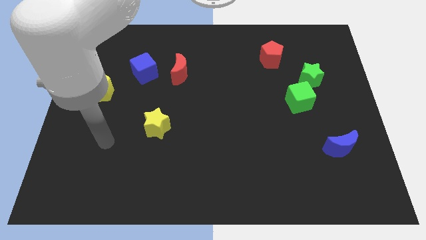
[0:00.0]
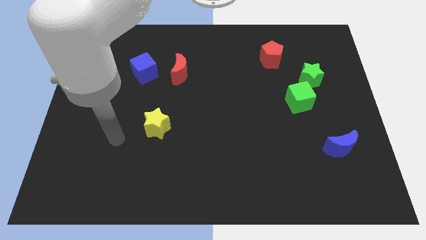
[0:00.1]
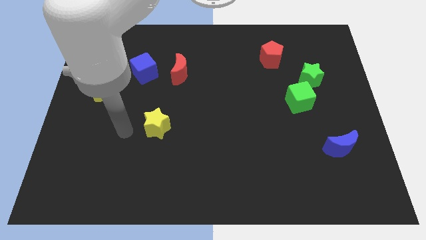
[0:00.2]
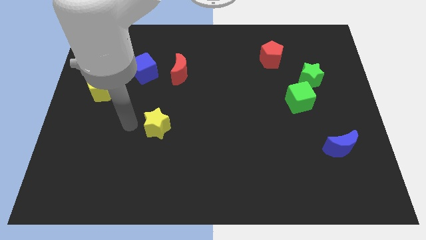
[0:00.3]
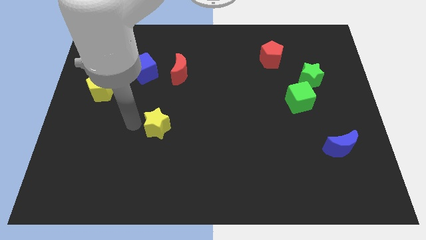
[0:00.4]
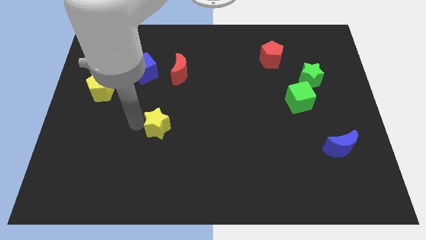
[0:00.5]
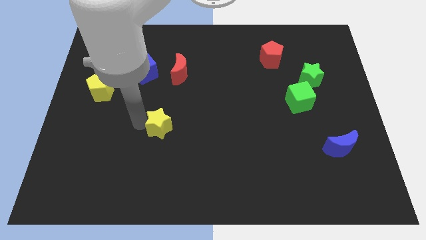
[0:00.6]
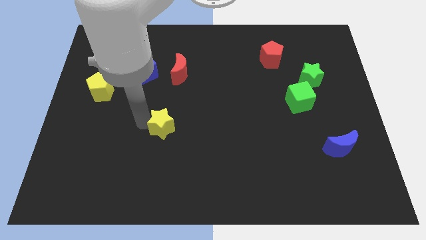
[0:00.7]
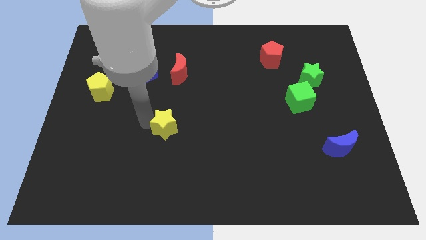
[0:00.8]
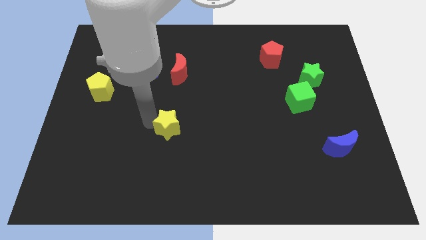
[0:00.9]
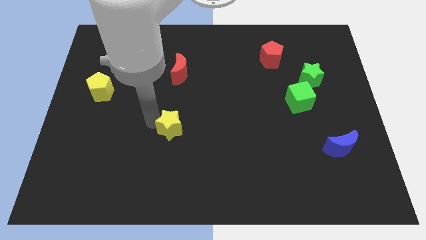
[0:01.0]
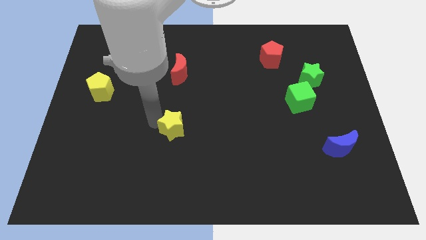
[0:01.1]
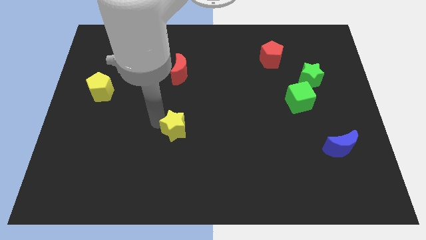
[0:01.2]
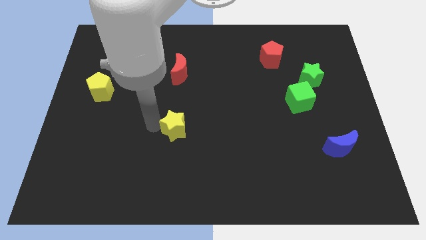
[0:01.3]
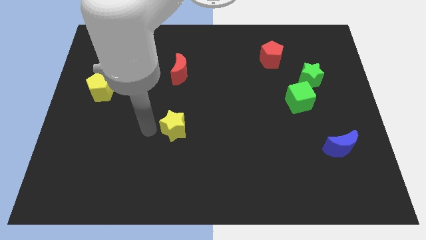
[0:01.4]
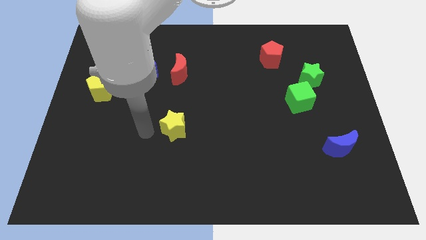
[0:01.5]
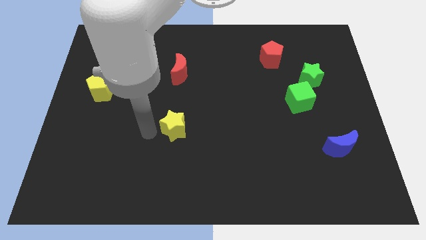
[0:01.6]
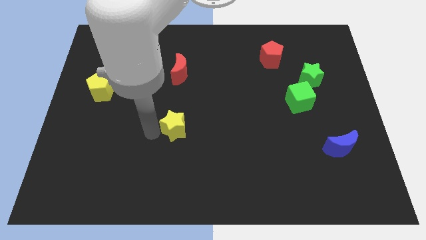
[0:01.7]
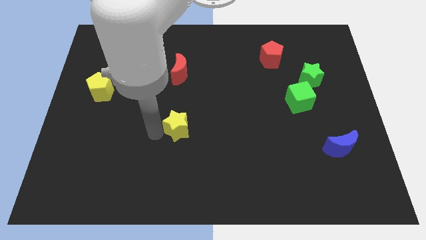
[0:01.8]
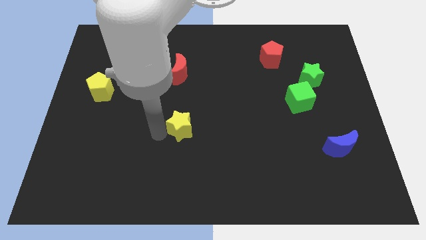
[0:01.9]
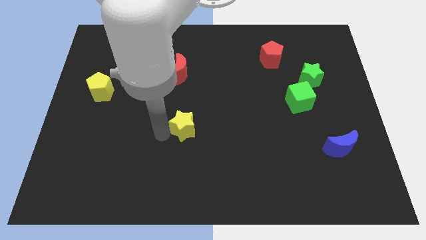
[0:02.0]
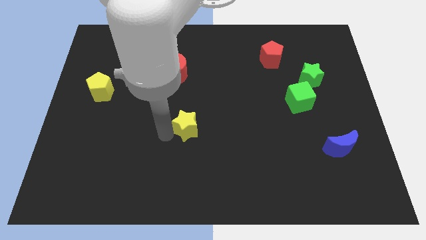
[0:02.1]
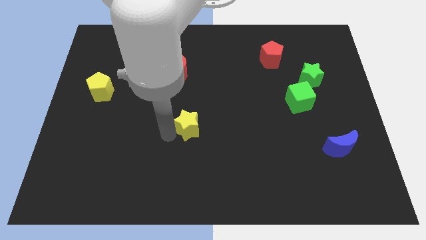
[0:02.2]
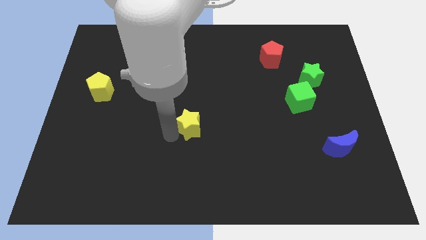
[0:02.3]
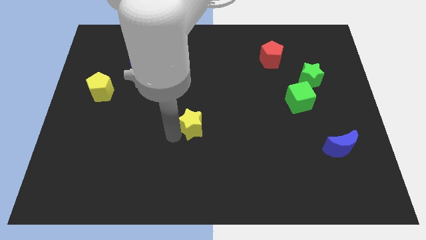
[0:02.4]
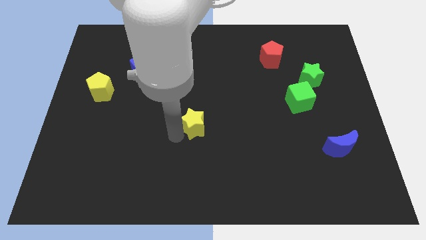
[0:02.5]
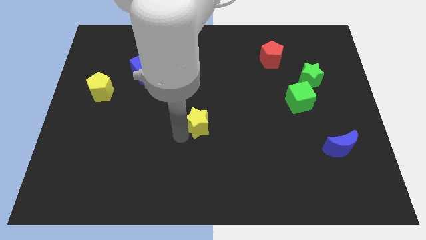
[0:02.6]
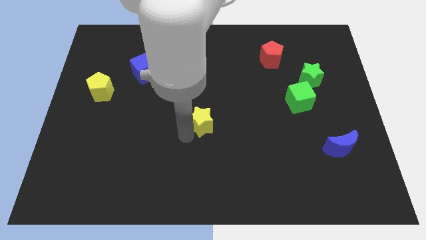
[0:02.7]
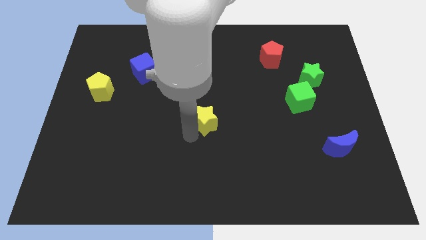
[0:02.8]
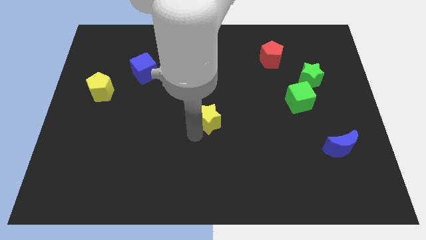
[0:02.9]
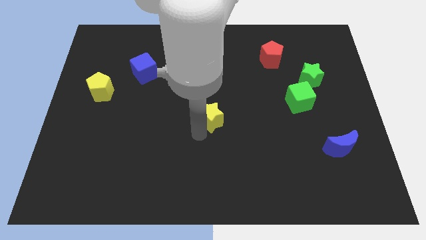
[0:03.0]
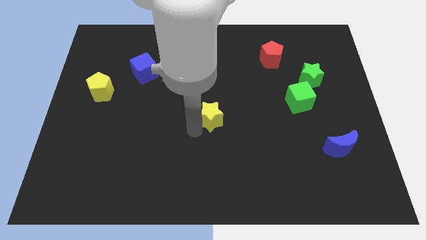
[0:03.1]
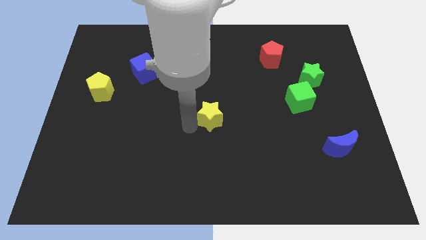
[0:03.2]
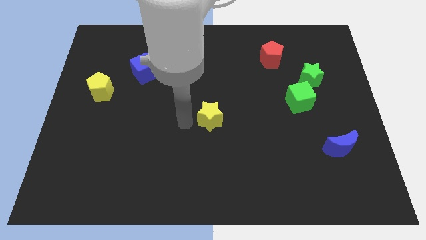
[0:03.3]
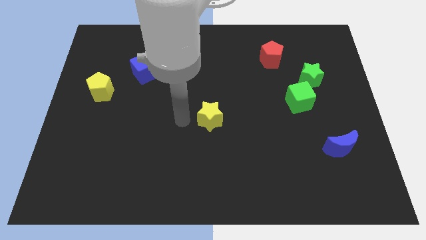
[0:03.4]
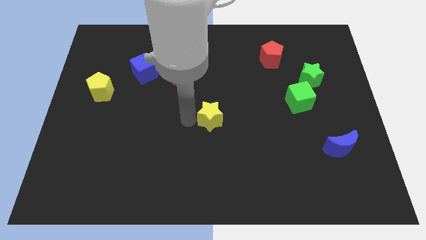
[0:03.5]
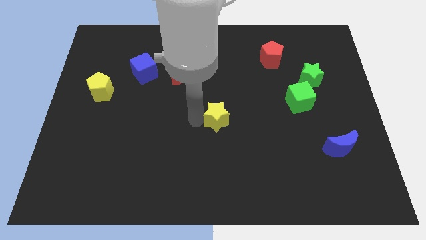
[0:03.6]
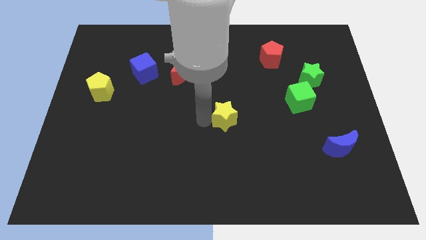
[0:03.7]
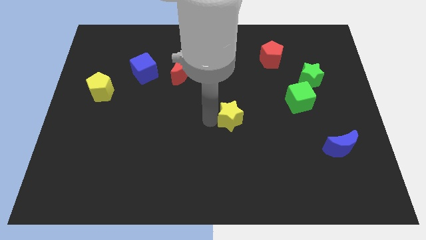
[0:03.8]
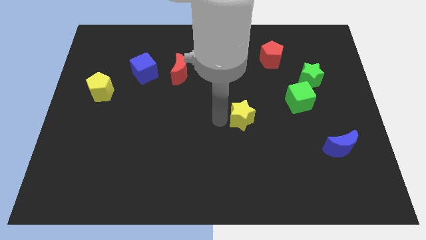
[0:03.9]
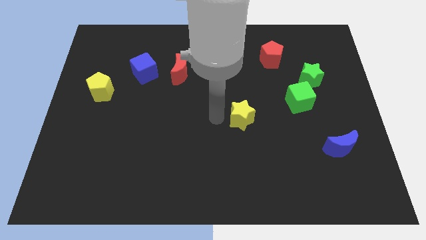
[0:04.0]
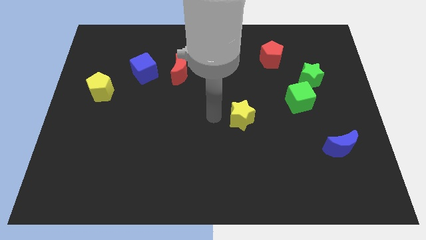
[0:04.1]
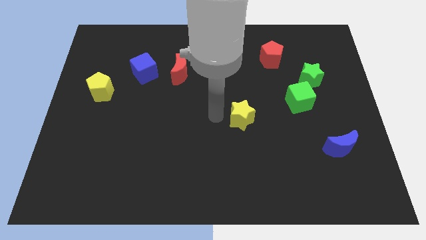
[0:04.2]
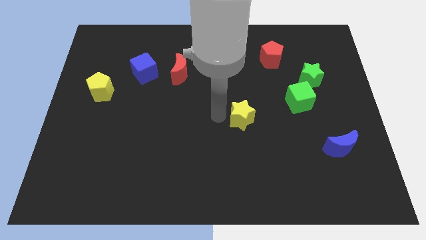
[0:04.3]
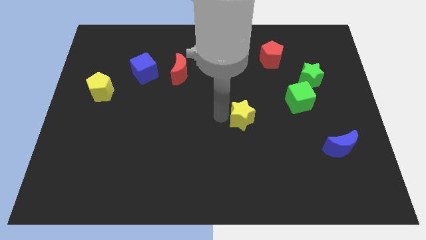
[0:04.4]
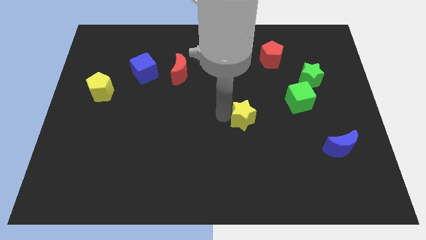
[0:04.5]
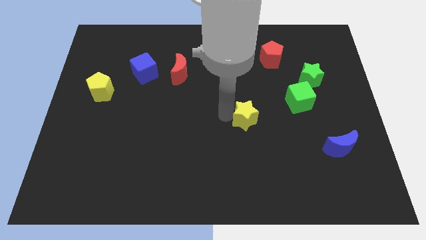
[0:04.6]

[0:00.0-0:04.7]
push the yellow star right

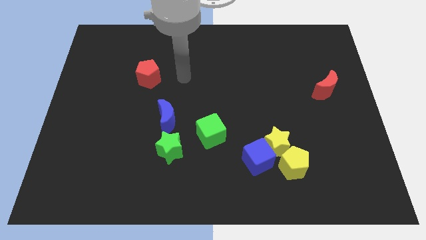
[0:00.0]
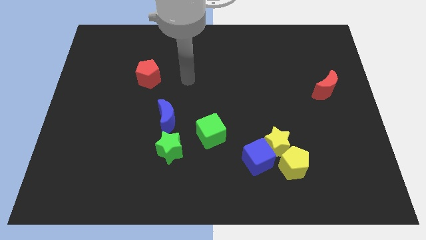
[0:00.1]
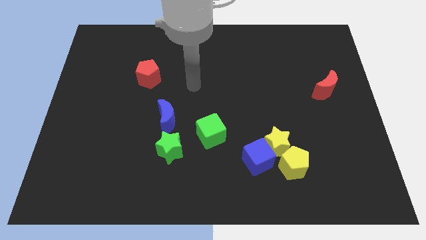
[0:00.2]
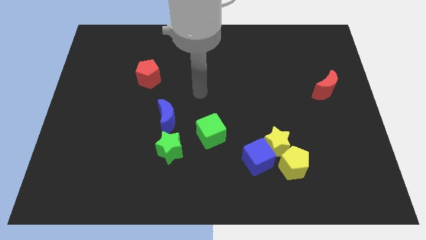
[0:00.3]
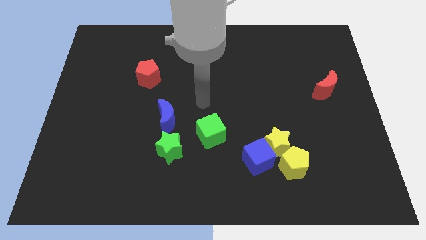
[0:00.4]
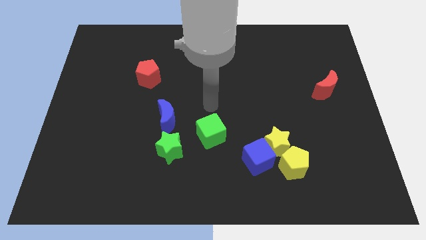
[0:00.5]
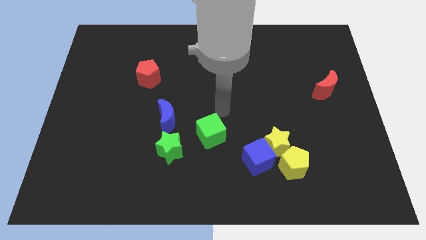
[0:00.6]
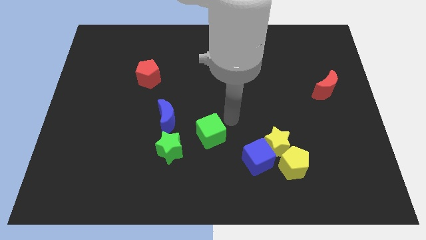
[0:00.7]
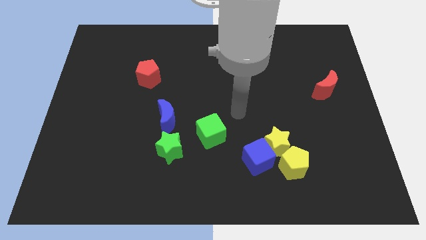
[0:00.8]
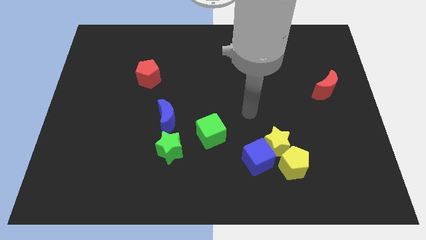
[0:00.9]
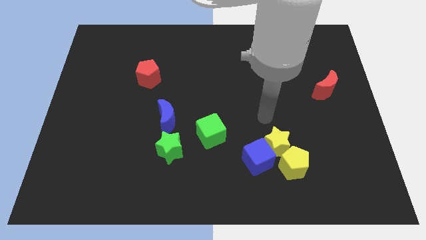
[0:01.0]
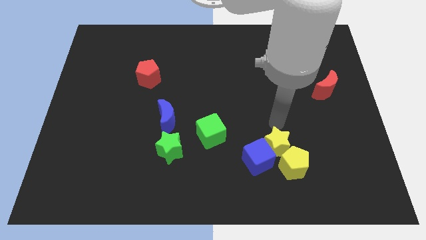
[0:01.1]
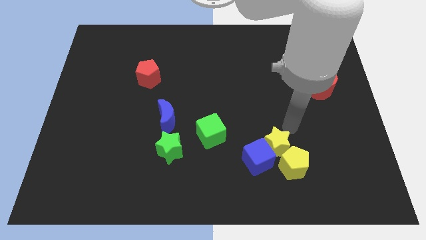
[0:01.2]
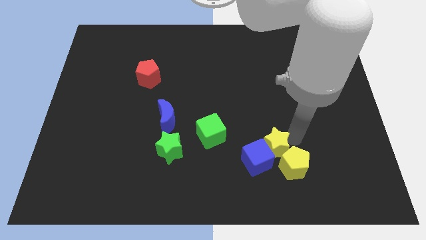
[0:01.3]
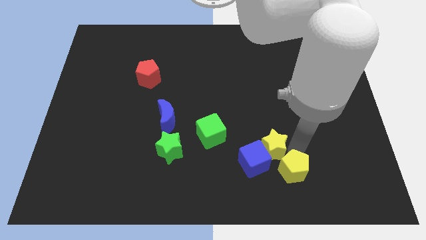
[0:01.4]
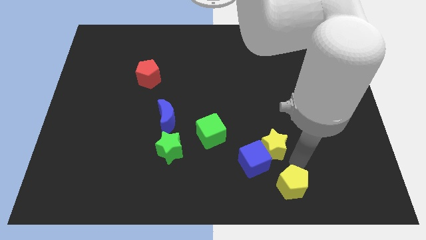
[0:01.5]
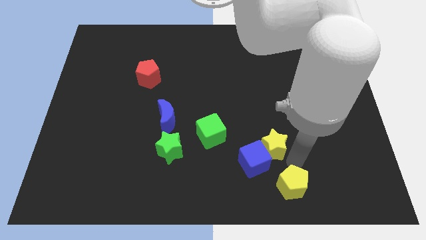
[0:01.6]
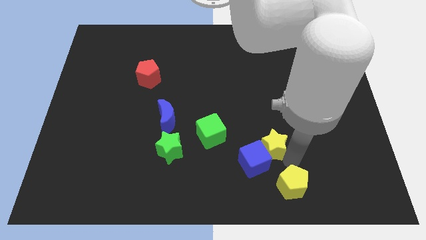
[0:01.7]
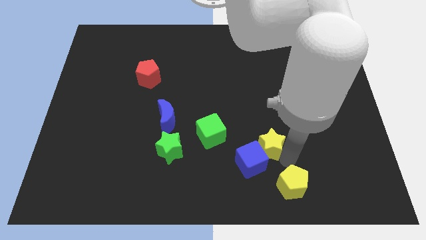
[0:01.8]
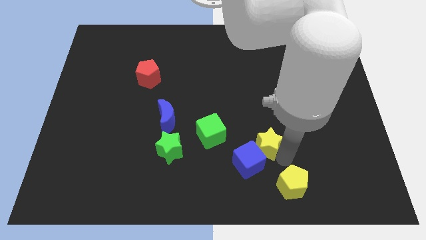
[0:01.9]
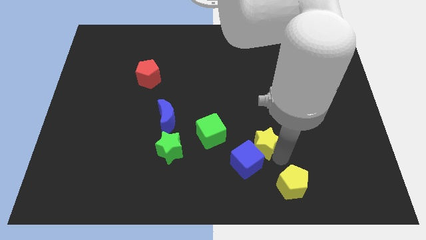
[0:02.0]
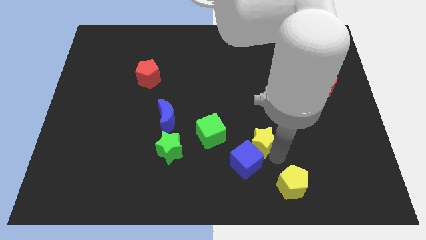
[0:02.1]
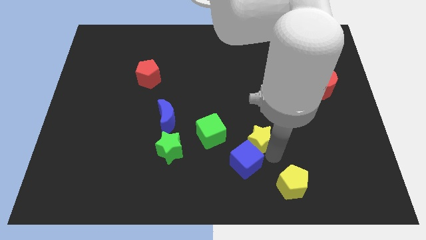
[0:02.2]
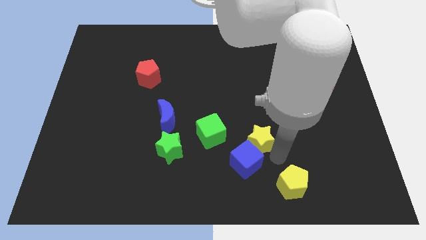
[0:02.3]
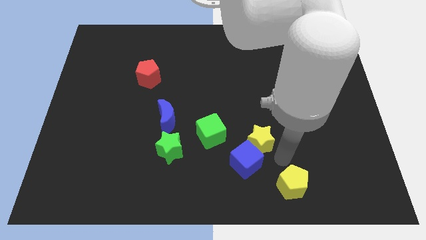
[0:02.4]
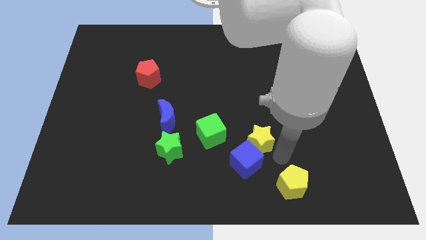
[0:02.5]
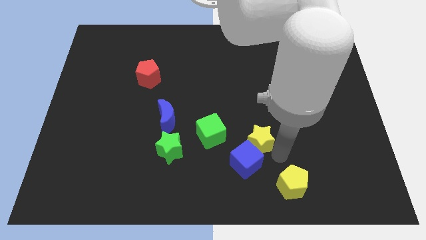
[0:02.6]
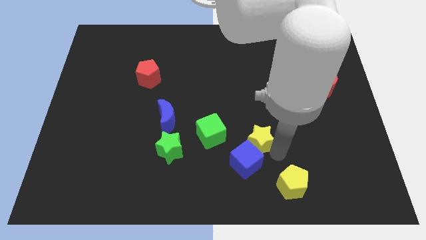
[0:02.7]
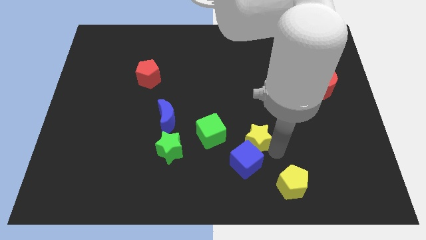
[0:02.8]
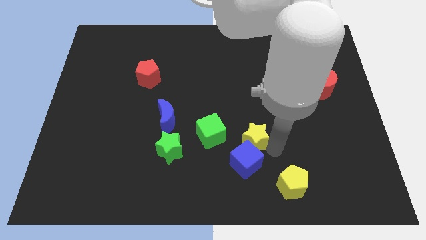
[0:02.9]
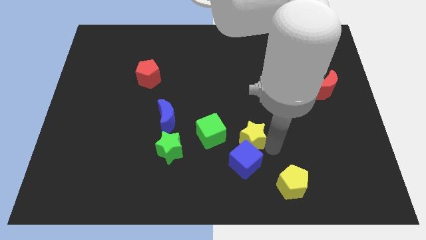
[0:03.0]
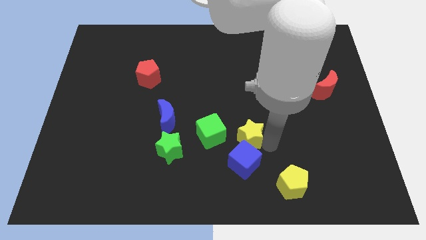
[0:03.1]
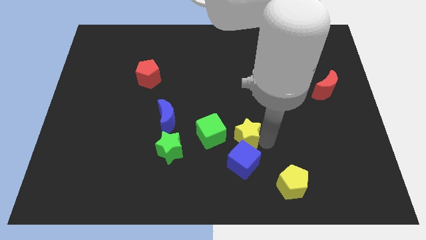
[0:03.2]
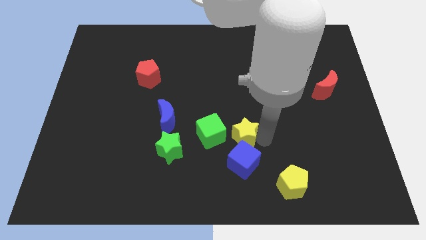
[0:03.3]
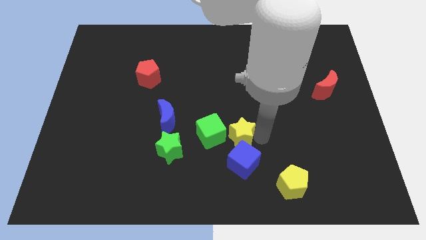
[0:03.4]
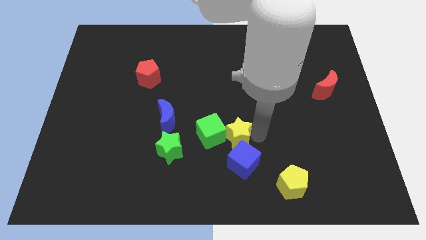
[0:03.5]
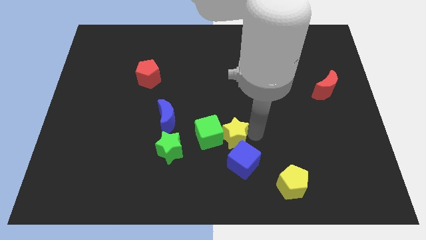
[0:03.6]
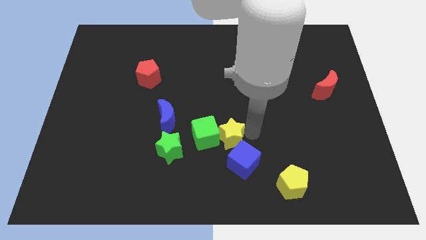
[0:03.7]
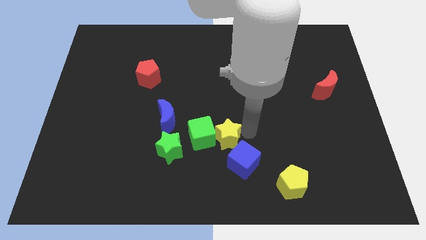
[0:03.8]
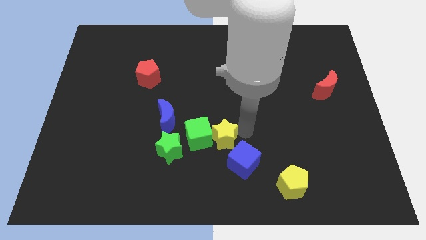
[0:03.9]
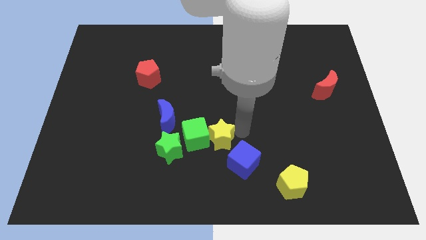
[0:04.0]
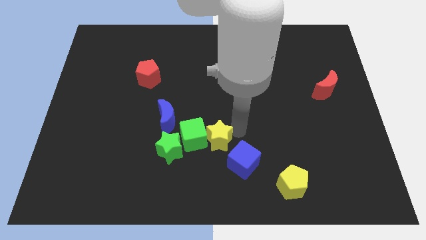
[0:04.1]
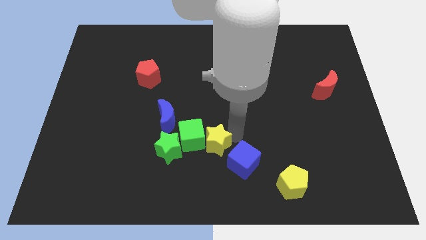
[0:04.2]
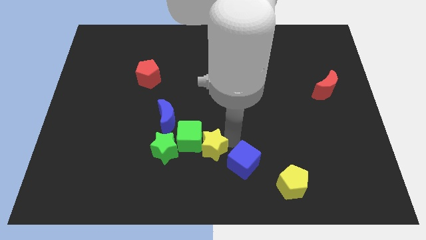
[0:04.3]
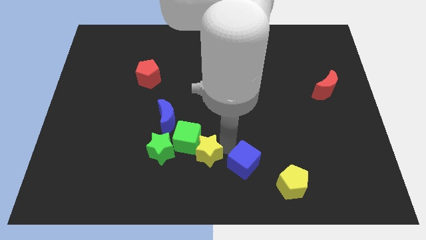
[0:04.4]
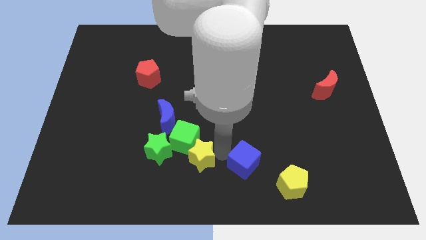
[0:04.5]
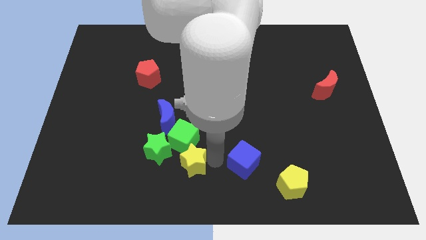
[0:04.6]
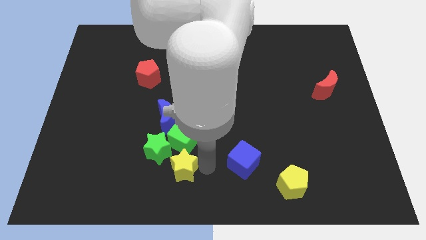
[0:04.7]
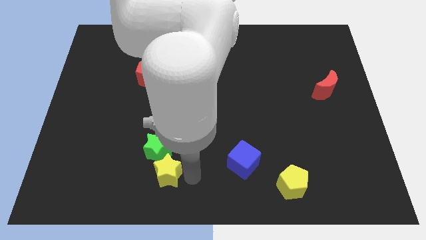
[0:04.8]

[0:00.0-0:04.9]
move the yellow star left
